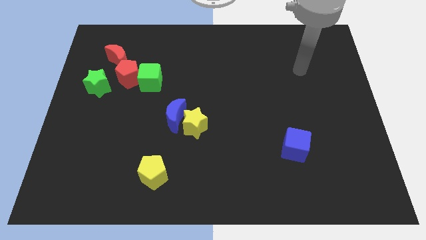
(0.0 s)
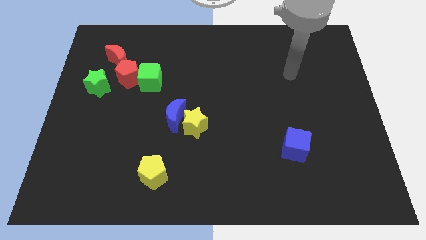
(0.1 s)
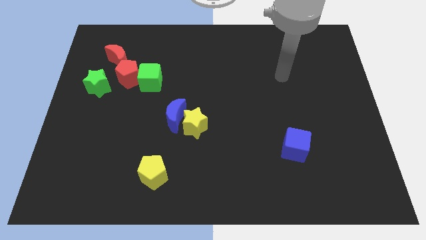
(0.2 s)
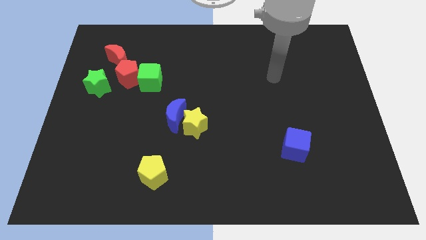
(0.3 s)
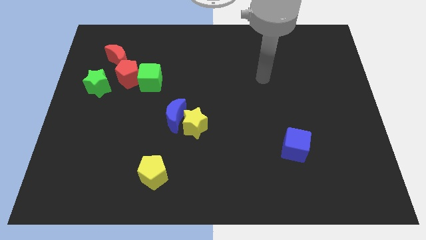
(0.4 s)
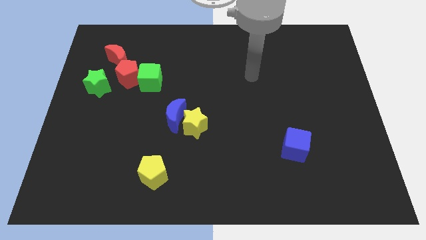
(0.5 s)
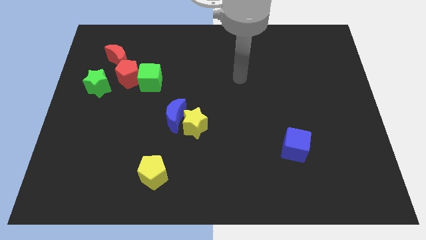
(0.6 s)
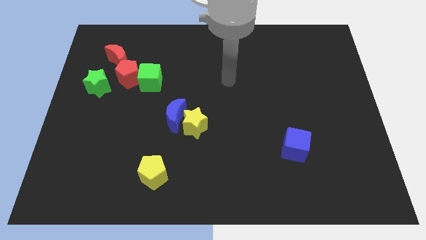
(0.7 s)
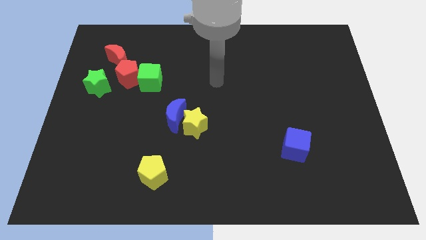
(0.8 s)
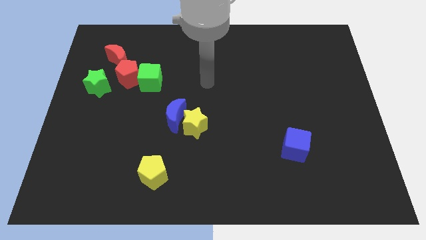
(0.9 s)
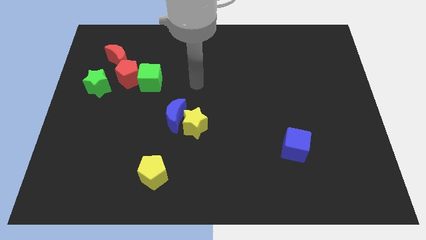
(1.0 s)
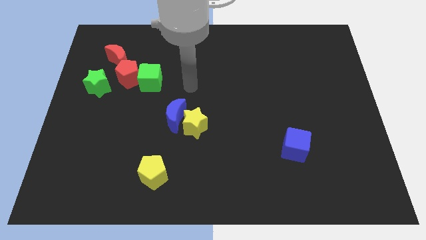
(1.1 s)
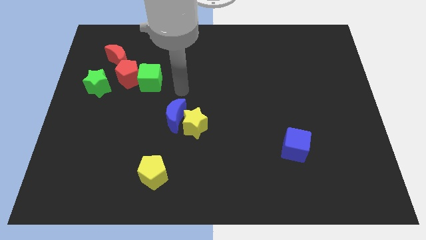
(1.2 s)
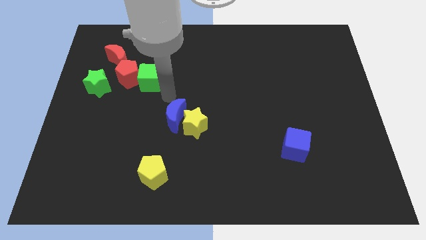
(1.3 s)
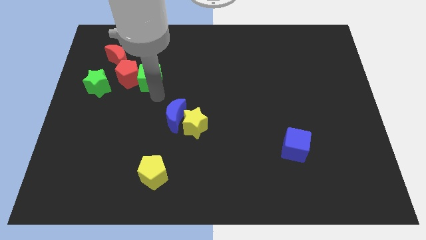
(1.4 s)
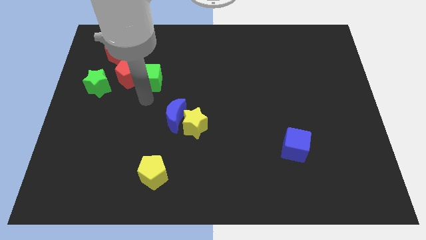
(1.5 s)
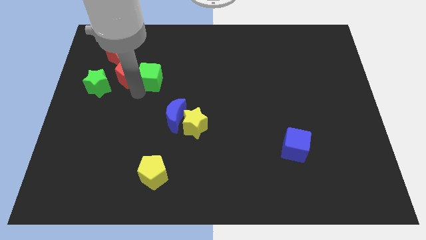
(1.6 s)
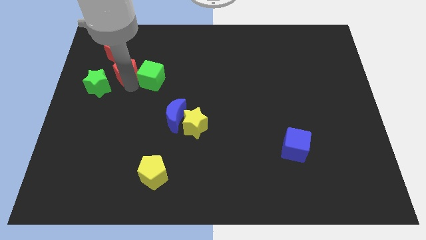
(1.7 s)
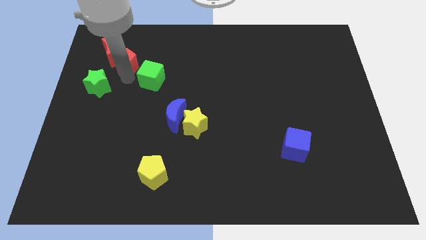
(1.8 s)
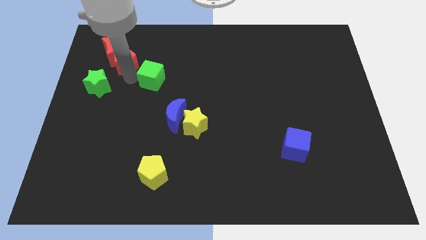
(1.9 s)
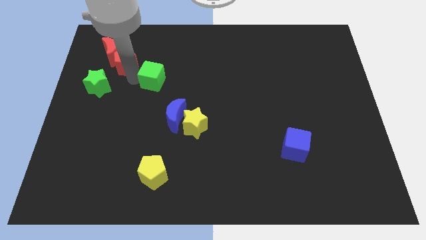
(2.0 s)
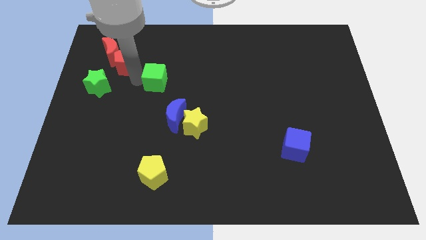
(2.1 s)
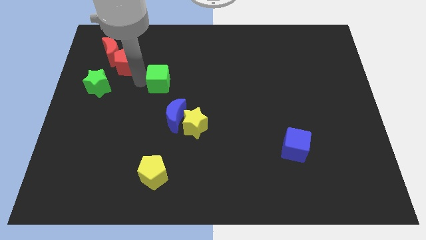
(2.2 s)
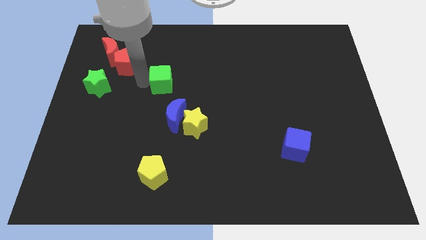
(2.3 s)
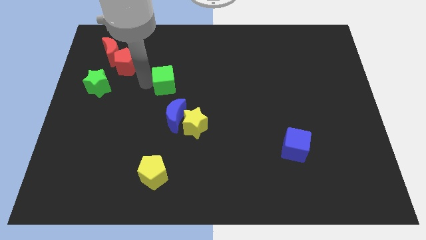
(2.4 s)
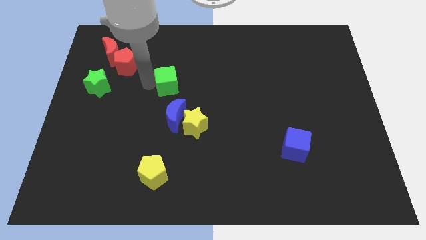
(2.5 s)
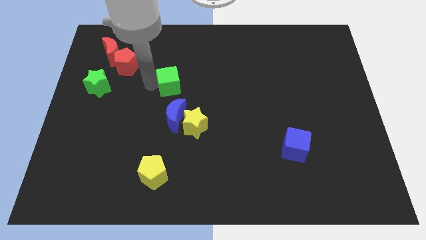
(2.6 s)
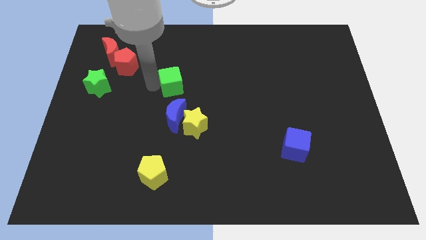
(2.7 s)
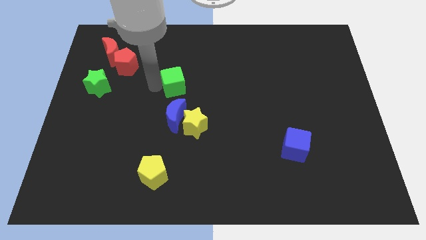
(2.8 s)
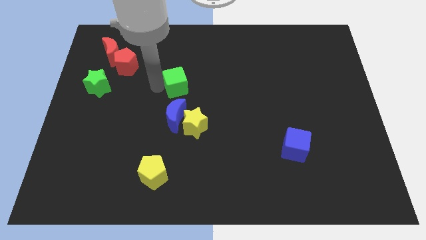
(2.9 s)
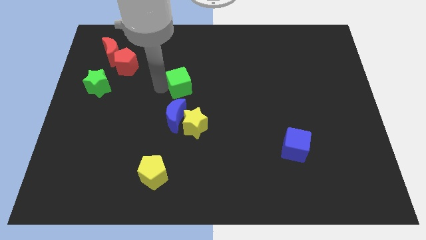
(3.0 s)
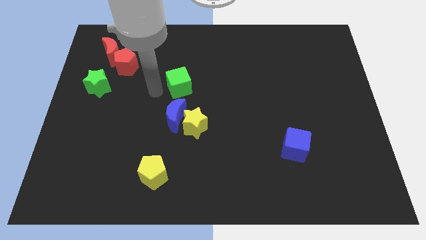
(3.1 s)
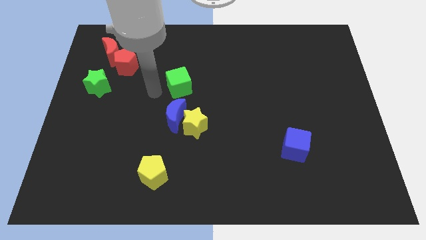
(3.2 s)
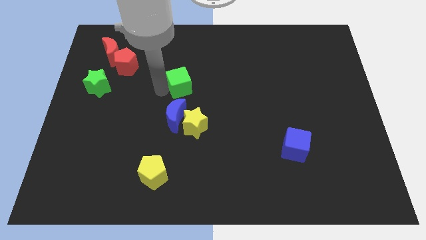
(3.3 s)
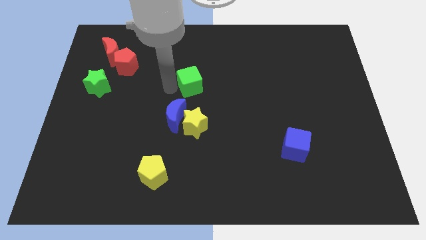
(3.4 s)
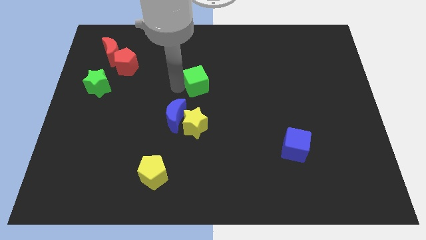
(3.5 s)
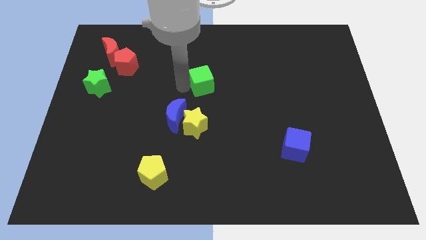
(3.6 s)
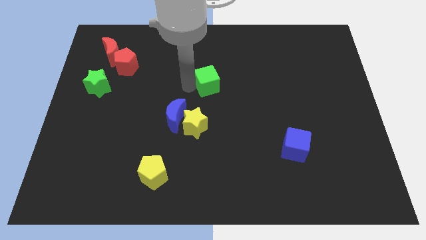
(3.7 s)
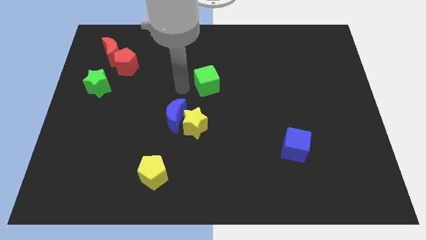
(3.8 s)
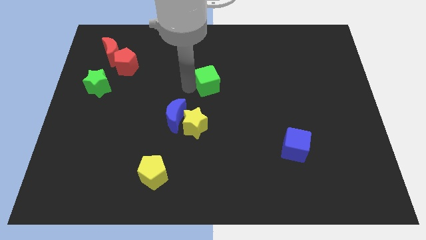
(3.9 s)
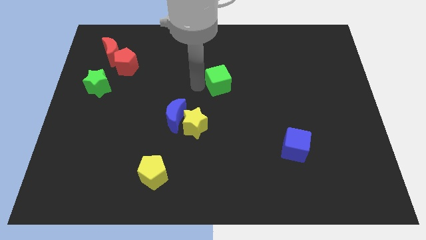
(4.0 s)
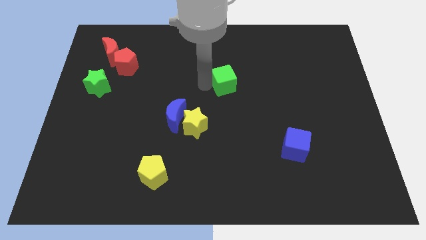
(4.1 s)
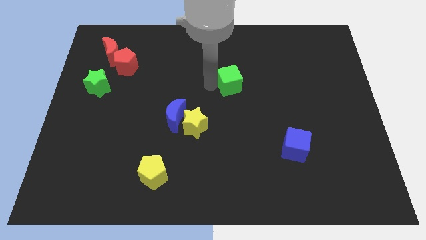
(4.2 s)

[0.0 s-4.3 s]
slide the green cube to the right

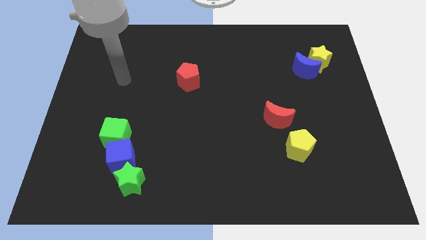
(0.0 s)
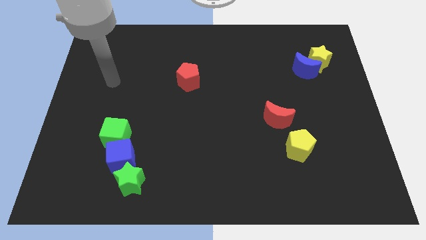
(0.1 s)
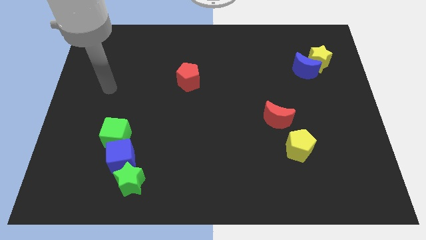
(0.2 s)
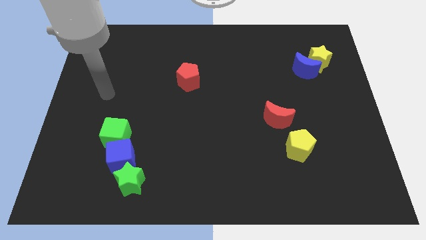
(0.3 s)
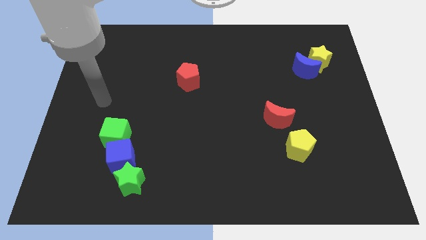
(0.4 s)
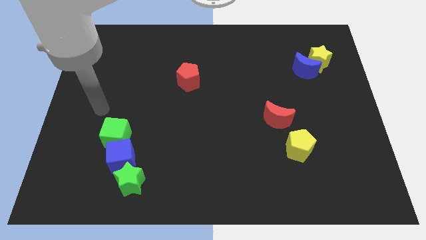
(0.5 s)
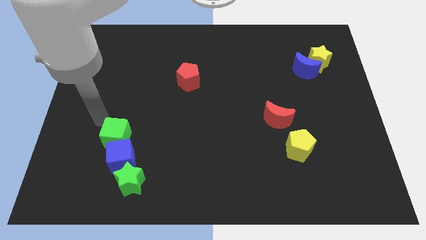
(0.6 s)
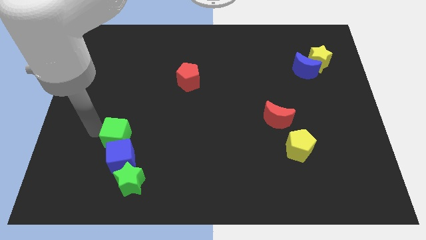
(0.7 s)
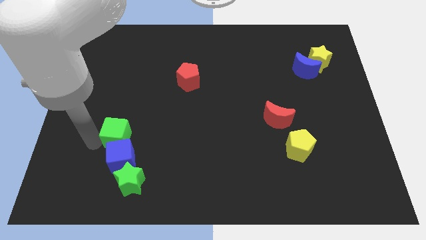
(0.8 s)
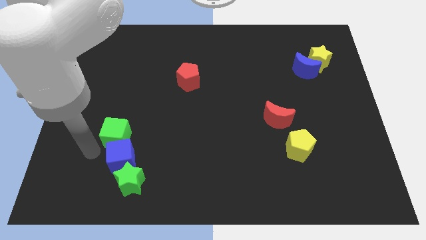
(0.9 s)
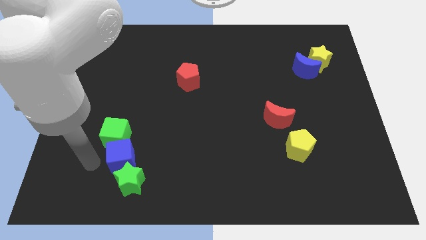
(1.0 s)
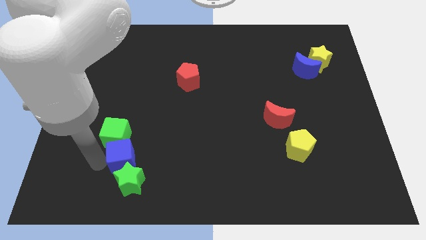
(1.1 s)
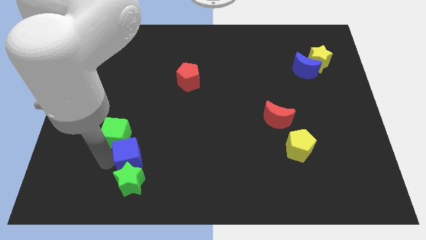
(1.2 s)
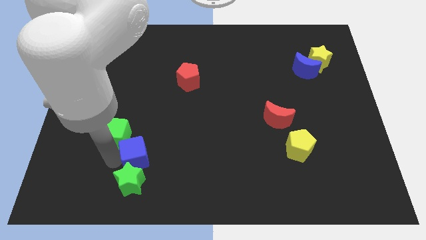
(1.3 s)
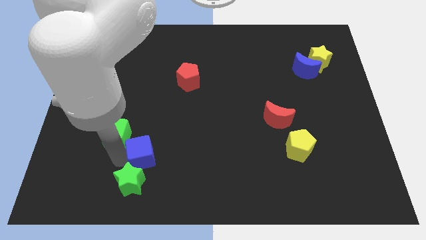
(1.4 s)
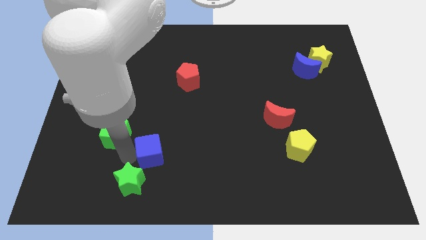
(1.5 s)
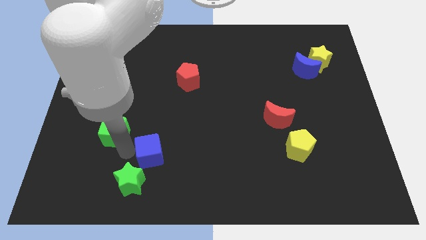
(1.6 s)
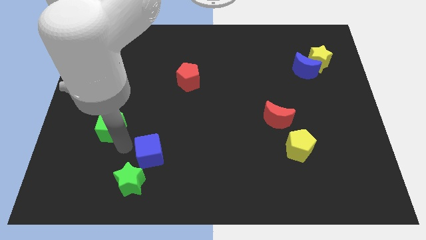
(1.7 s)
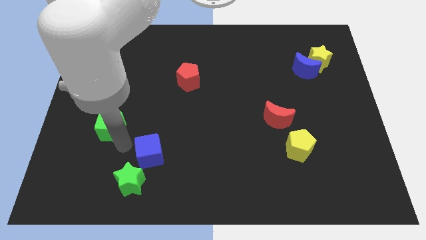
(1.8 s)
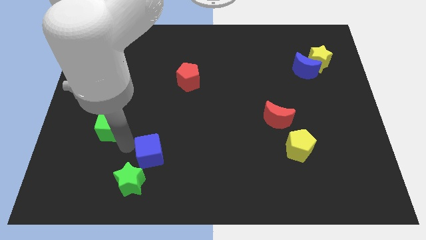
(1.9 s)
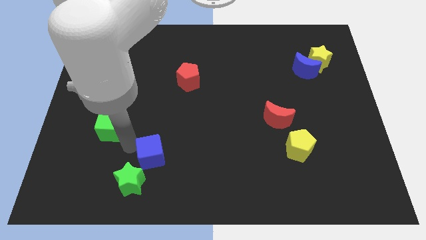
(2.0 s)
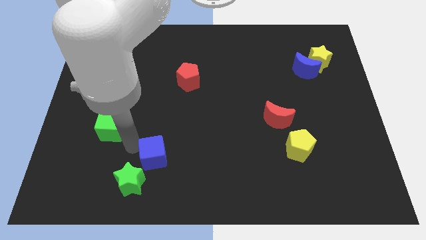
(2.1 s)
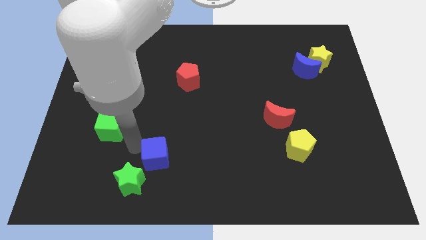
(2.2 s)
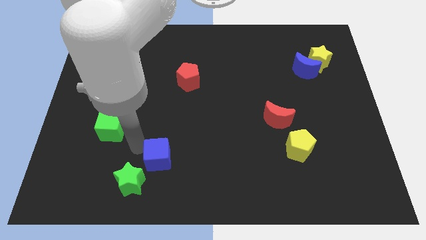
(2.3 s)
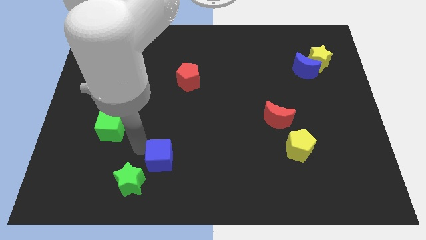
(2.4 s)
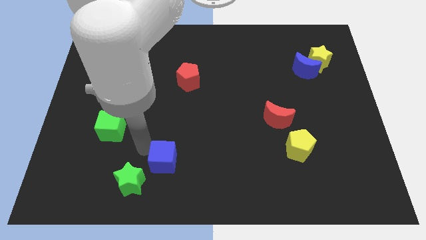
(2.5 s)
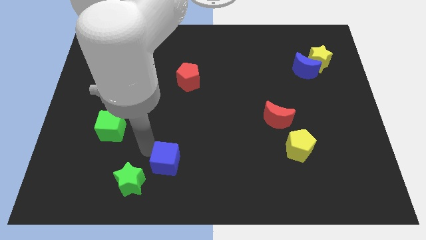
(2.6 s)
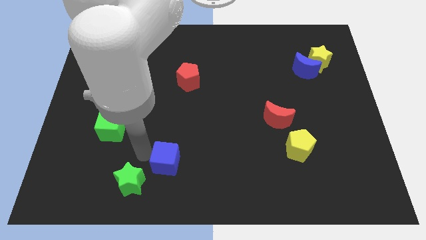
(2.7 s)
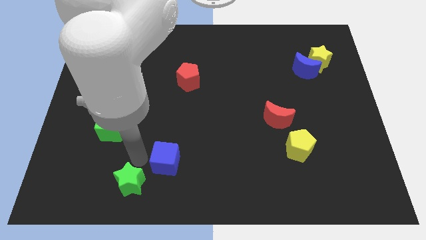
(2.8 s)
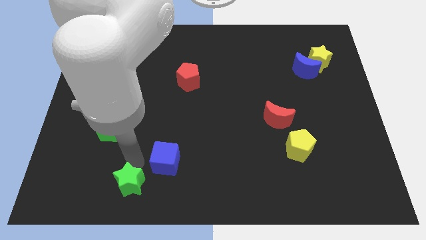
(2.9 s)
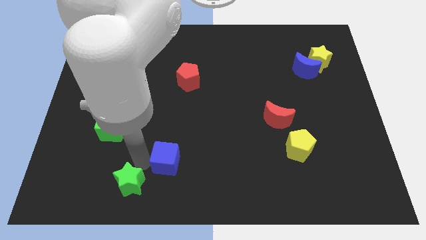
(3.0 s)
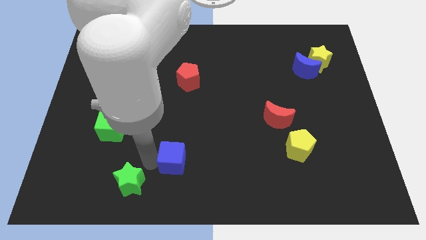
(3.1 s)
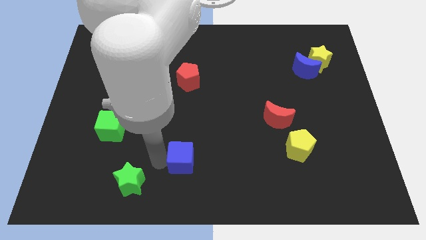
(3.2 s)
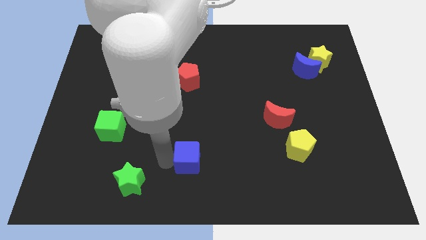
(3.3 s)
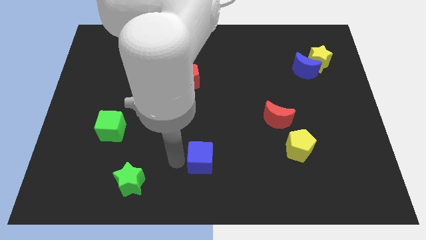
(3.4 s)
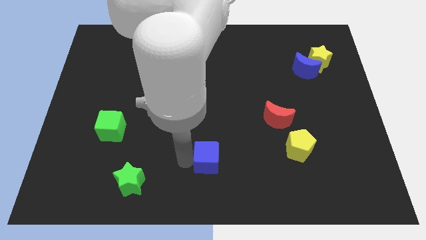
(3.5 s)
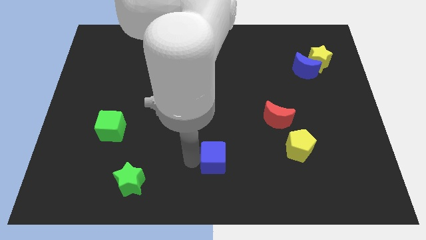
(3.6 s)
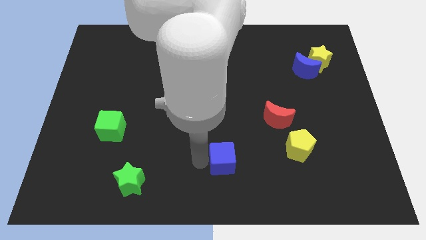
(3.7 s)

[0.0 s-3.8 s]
slide the blue cube right

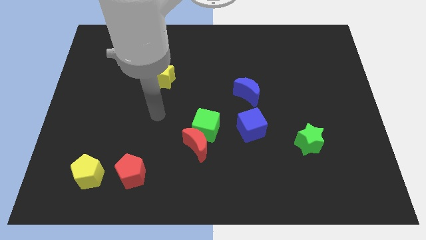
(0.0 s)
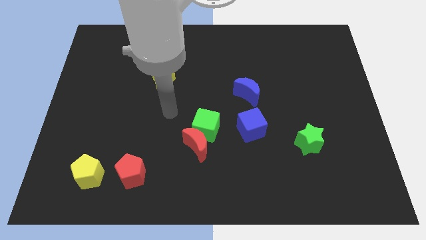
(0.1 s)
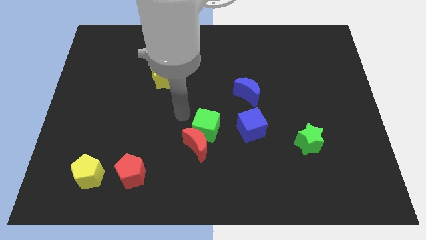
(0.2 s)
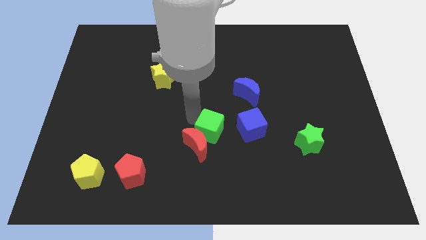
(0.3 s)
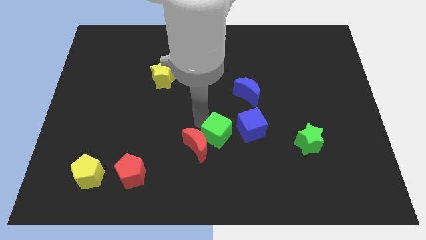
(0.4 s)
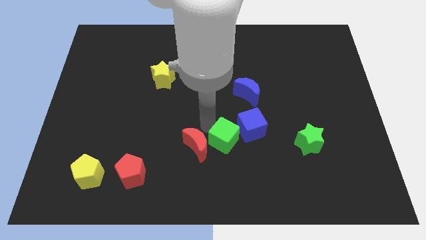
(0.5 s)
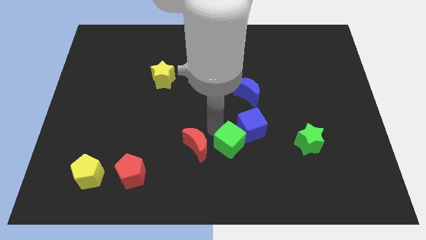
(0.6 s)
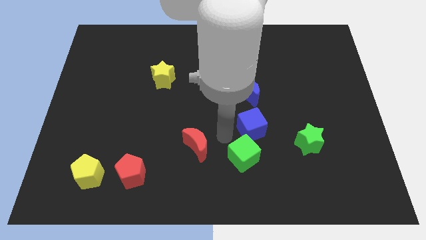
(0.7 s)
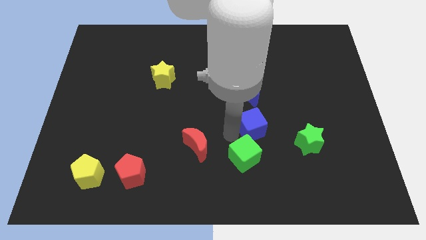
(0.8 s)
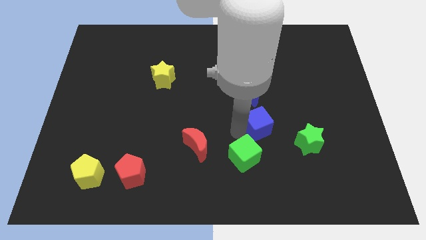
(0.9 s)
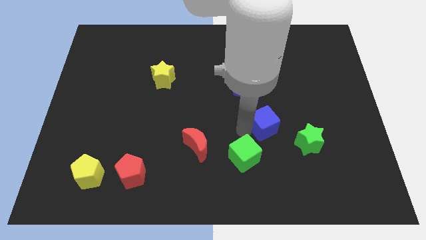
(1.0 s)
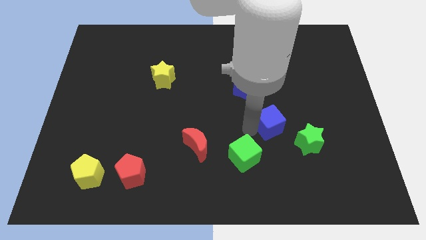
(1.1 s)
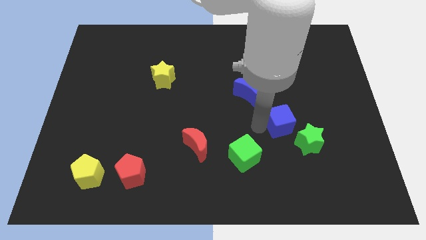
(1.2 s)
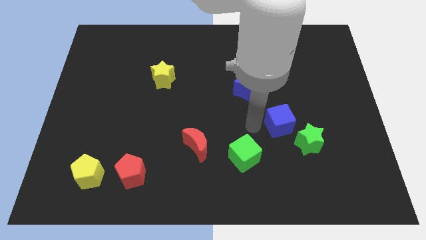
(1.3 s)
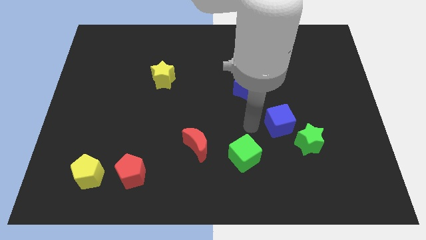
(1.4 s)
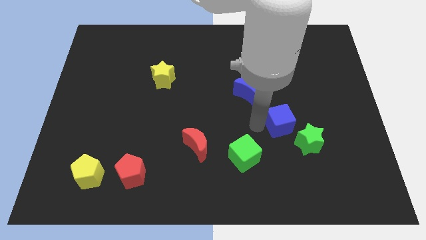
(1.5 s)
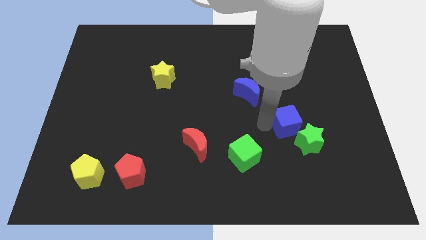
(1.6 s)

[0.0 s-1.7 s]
slide the blue cube to the right a bit
